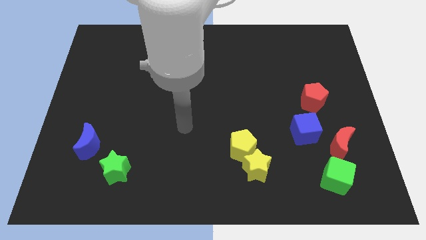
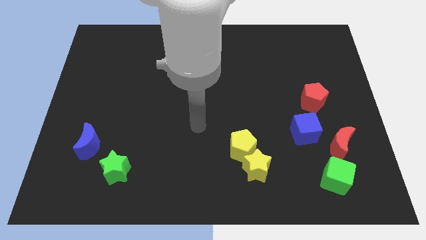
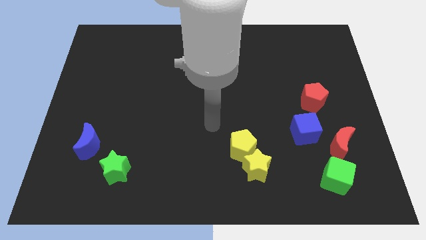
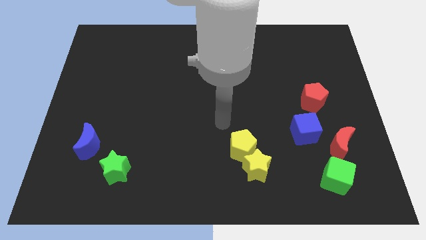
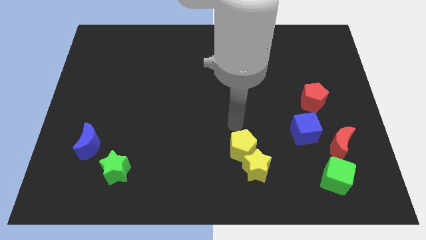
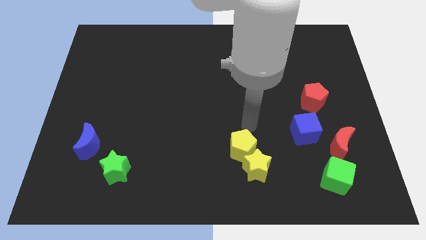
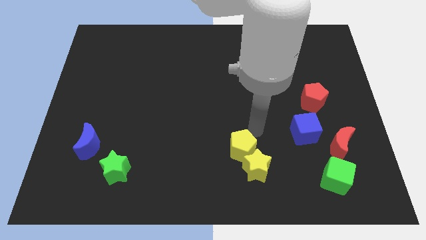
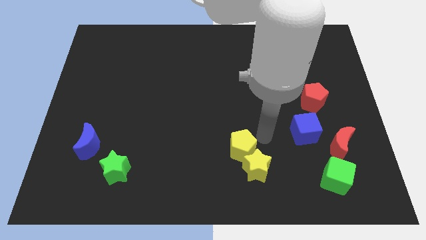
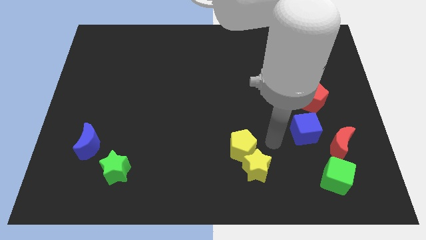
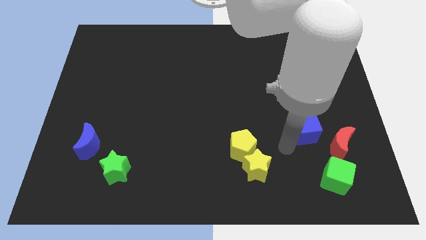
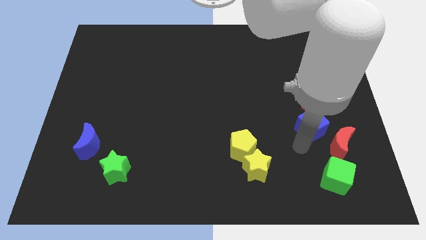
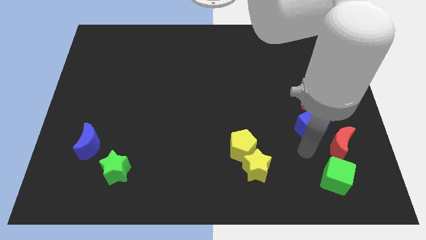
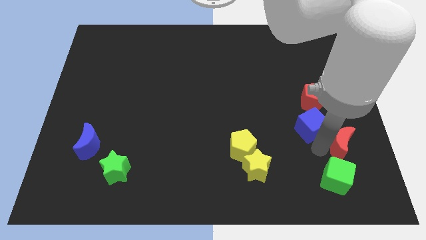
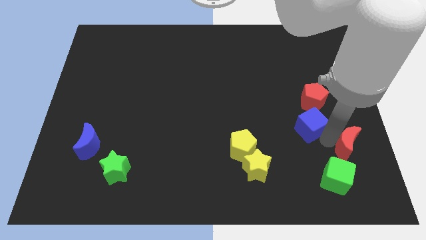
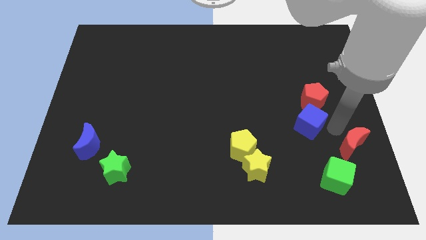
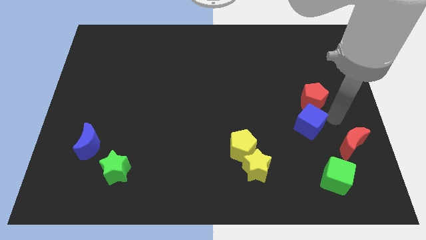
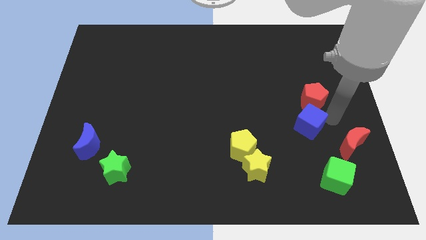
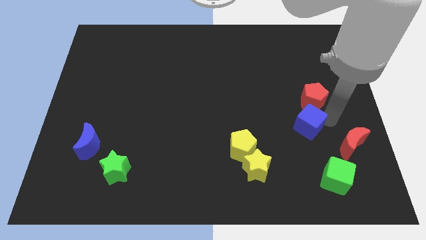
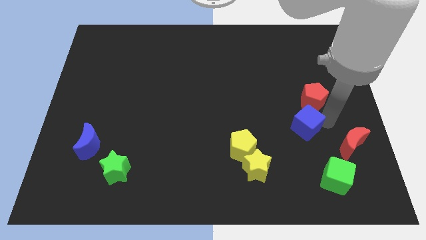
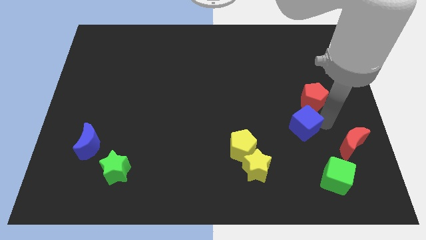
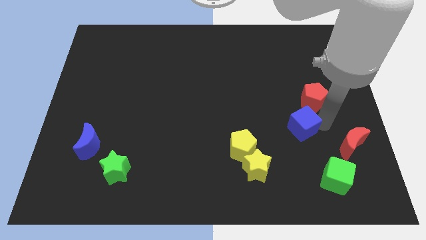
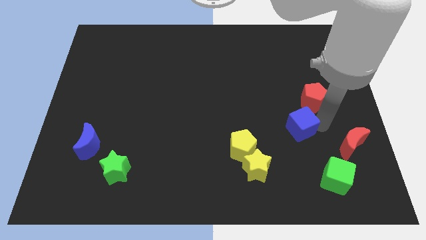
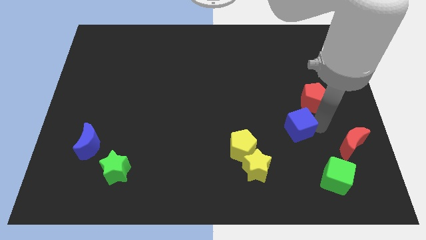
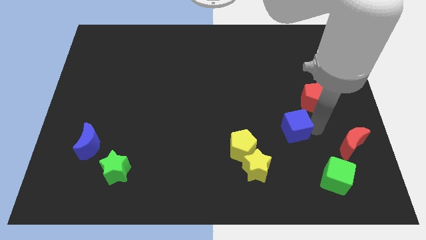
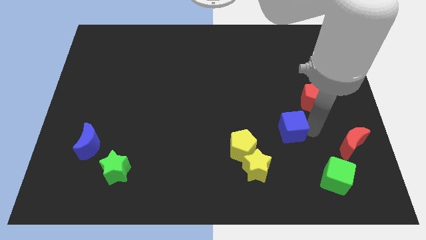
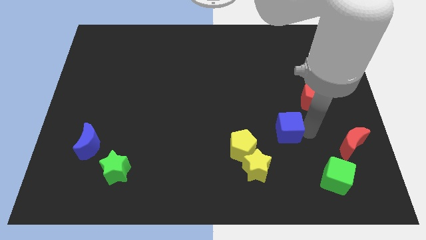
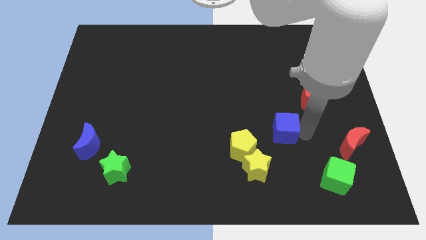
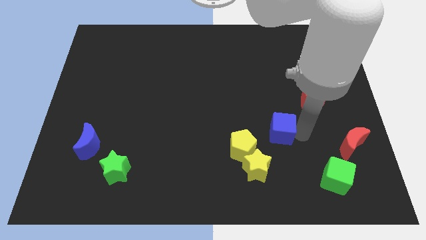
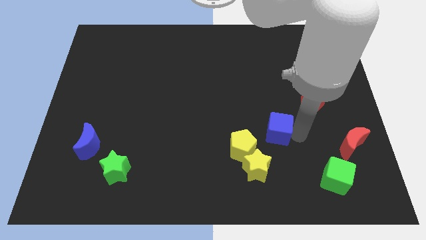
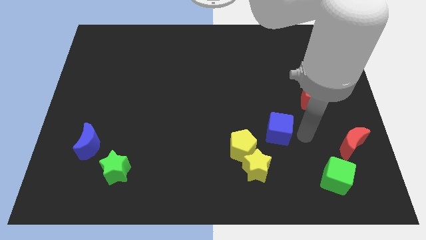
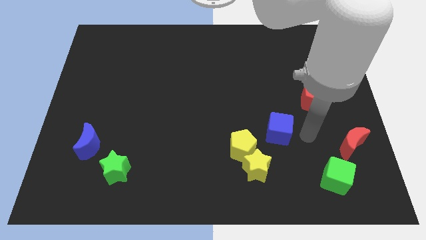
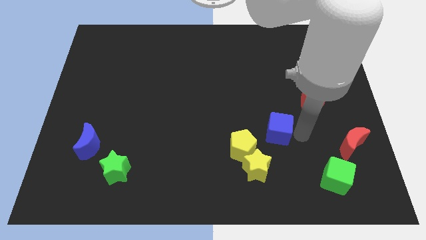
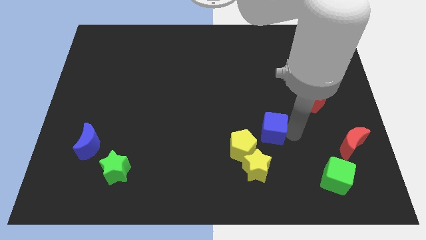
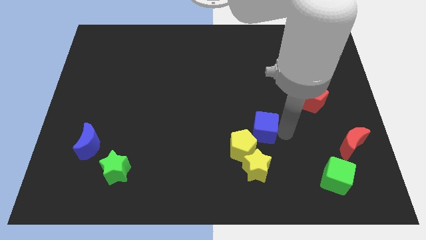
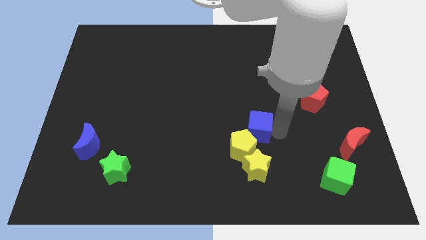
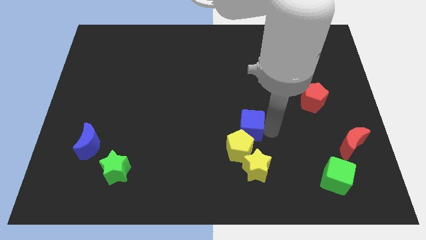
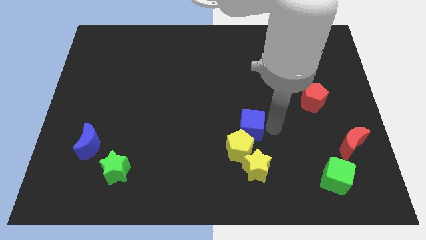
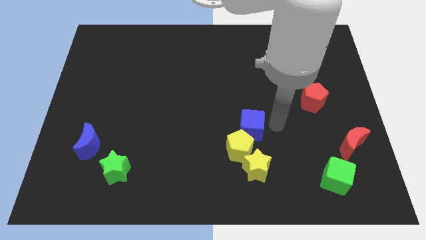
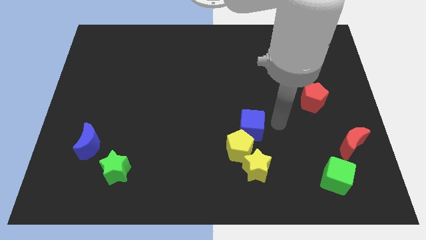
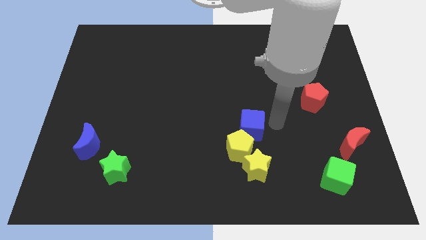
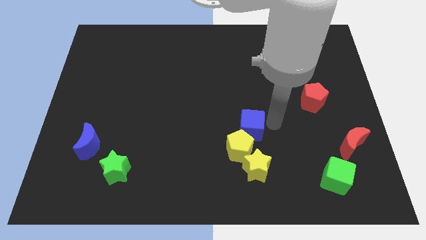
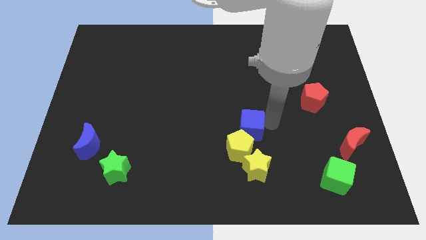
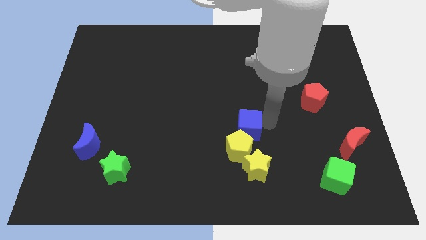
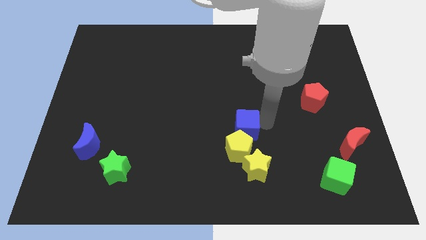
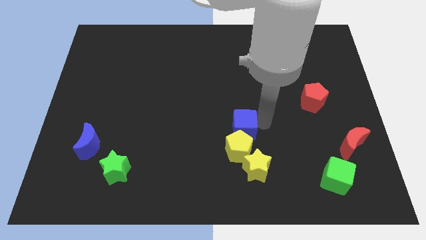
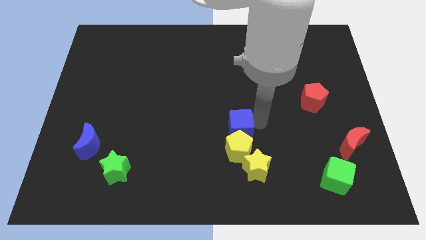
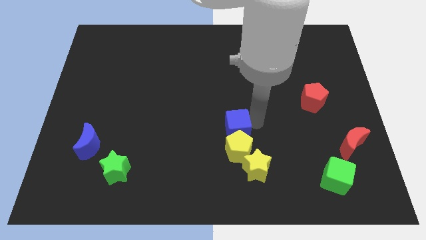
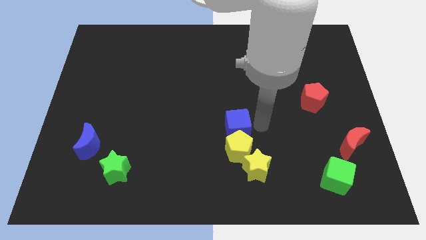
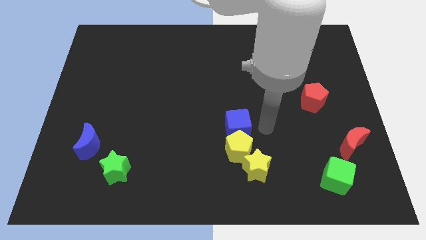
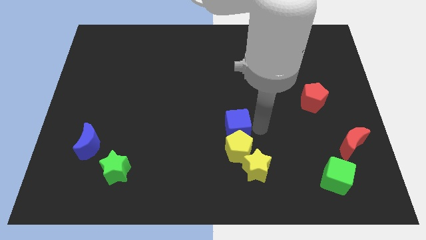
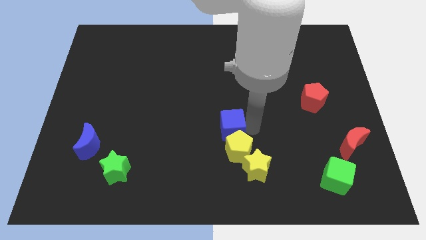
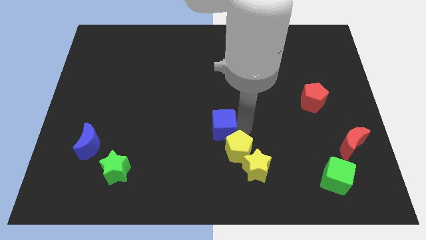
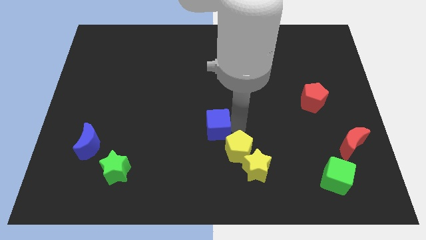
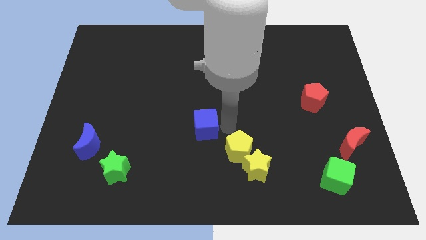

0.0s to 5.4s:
slide the blue cube left

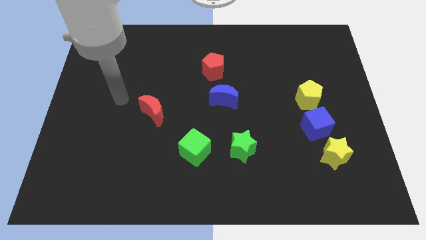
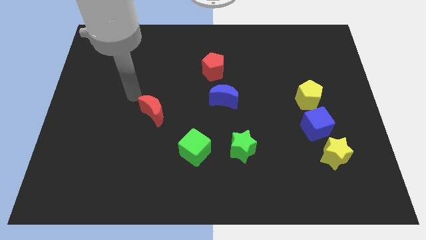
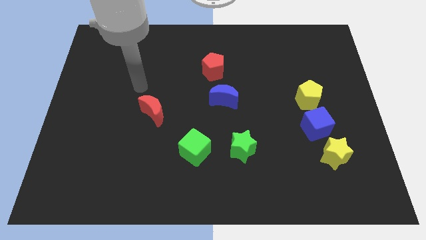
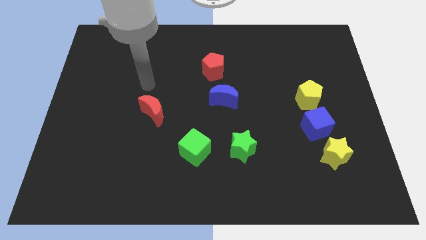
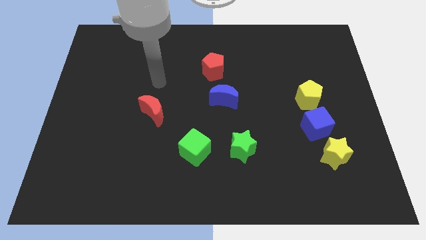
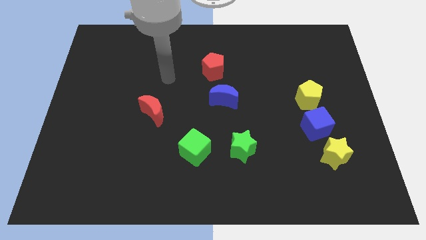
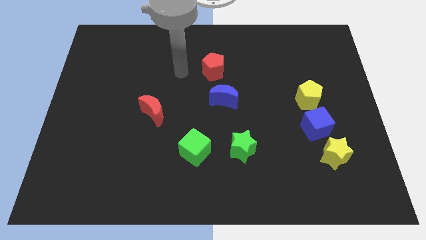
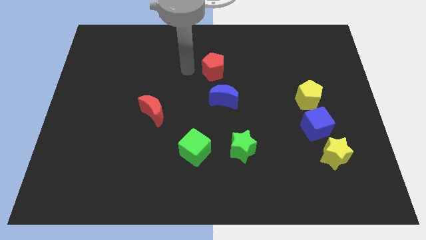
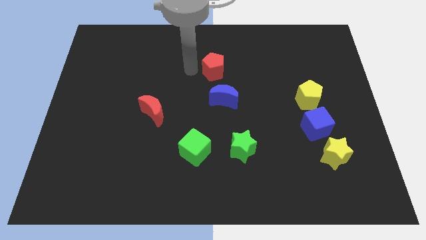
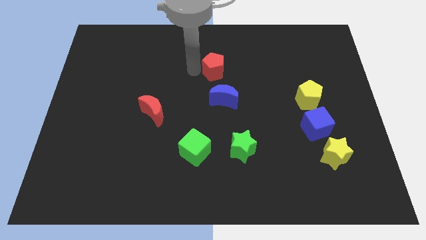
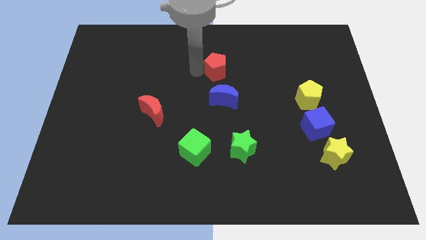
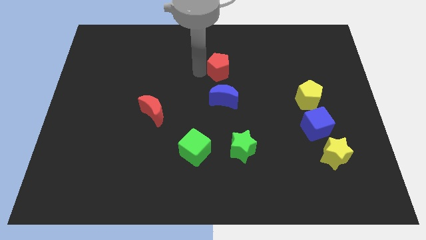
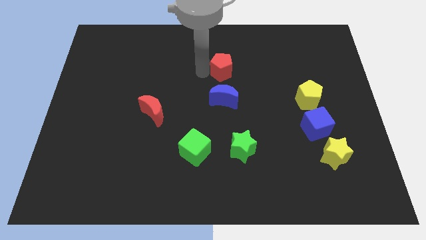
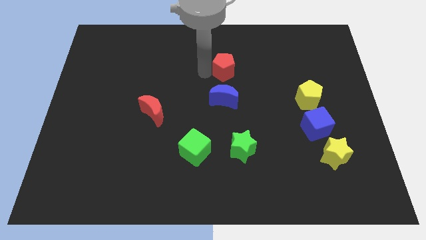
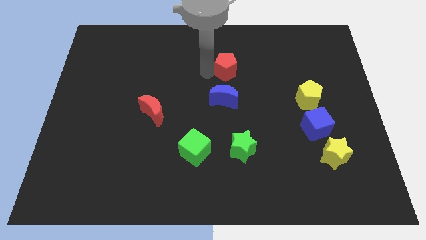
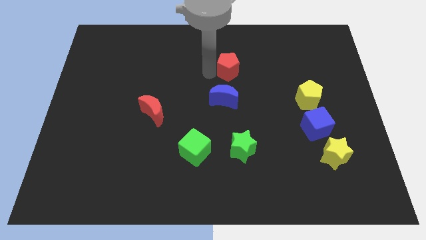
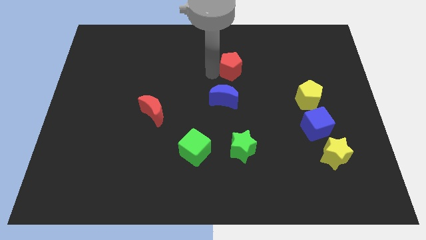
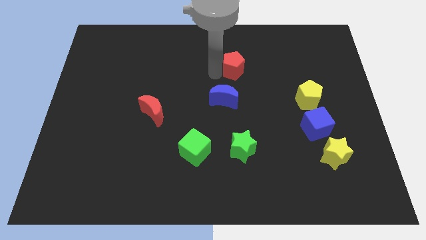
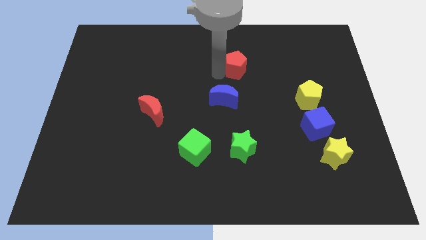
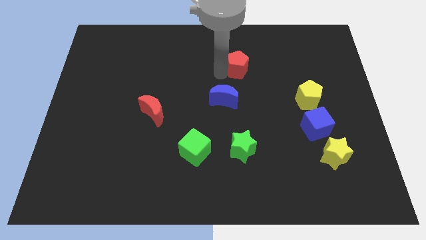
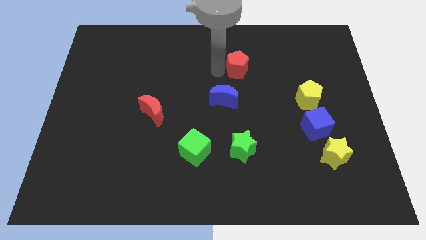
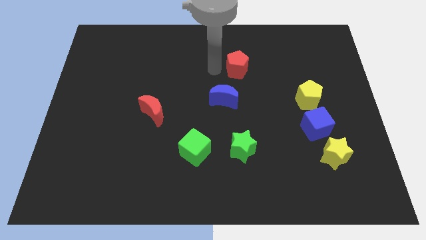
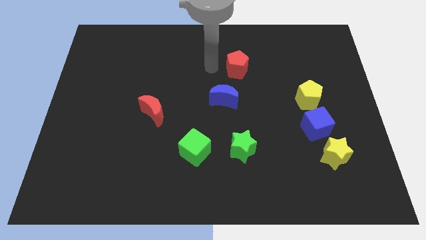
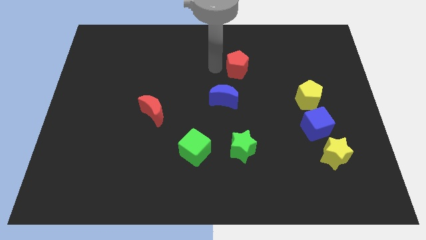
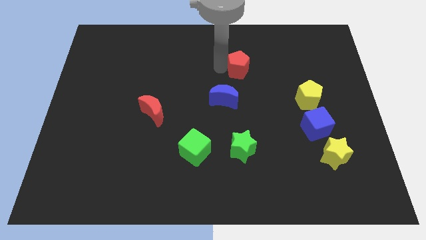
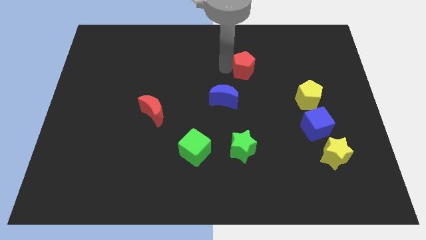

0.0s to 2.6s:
move the red pentagon to the right a bit
